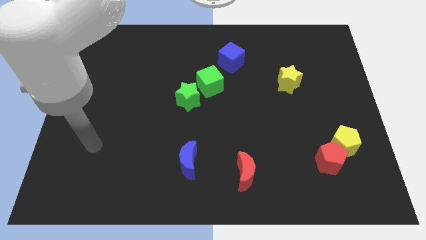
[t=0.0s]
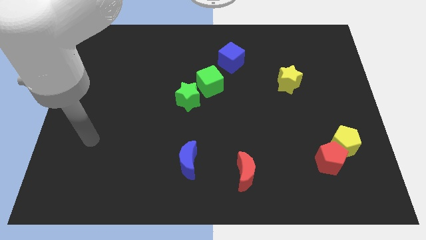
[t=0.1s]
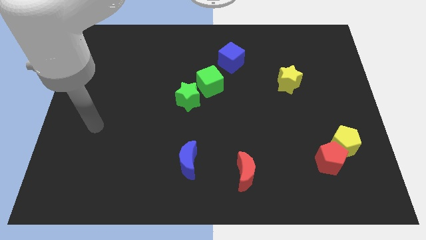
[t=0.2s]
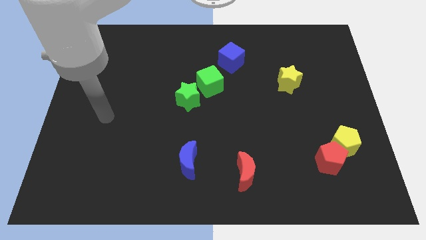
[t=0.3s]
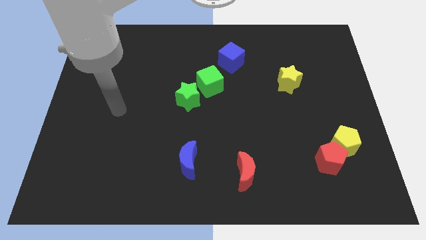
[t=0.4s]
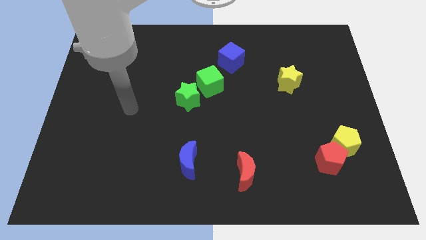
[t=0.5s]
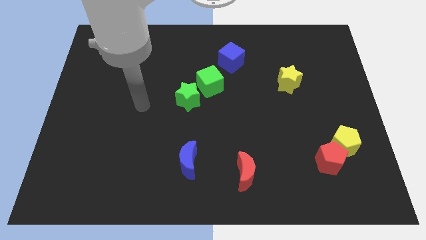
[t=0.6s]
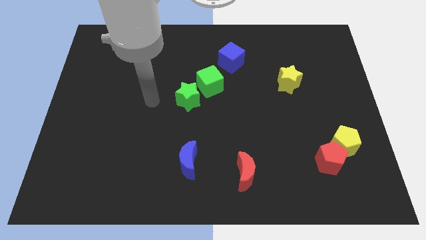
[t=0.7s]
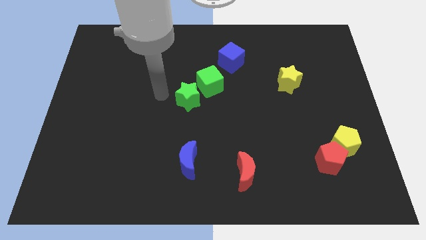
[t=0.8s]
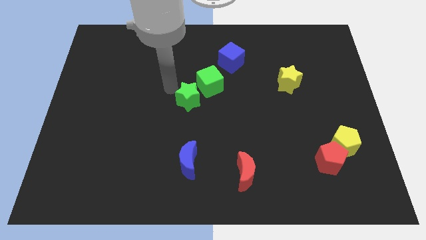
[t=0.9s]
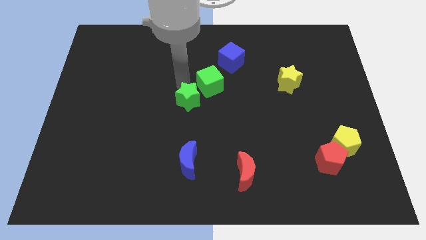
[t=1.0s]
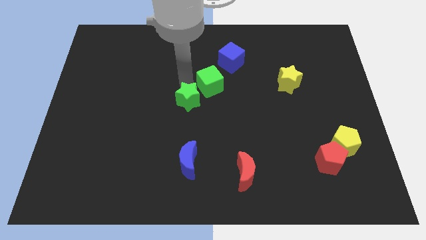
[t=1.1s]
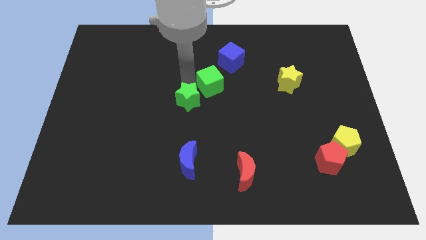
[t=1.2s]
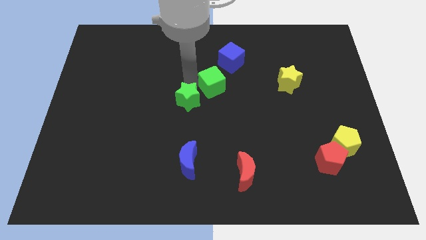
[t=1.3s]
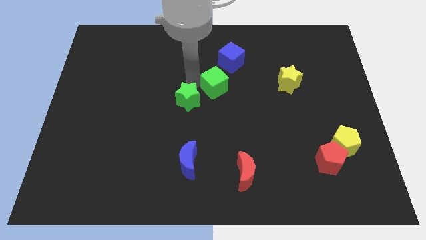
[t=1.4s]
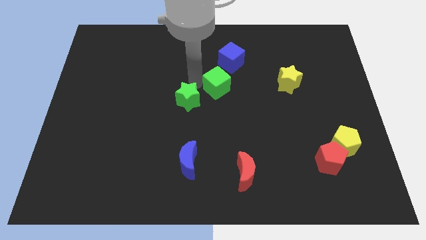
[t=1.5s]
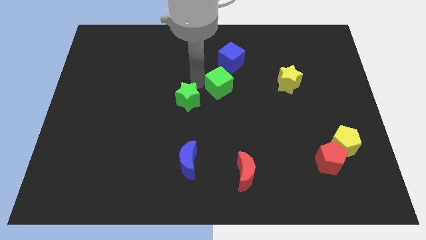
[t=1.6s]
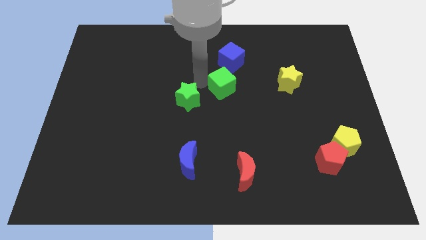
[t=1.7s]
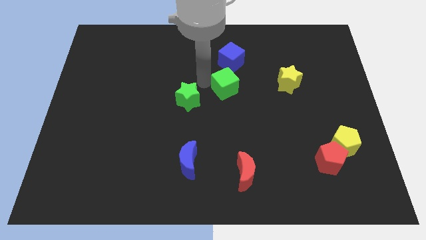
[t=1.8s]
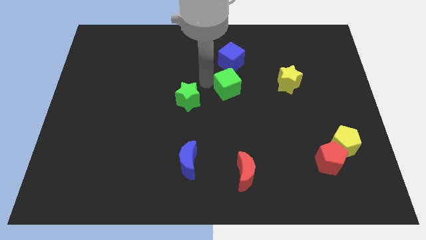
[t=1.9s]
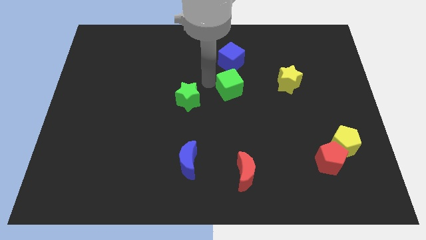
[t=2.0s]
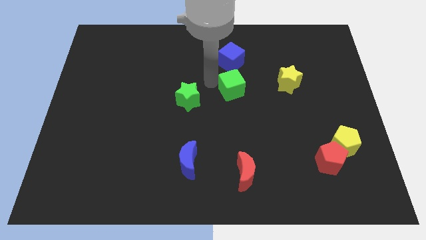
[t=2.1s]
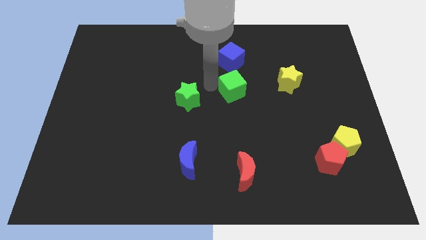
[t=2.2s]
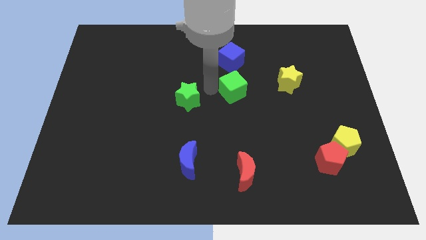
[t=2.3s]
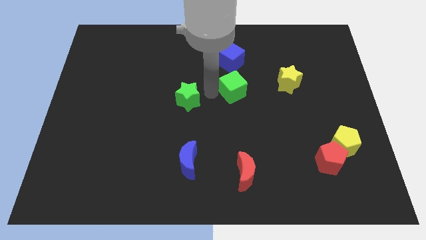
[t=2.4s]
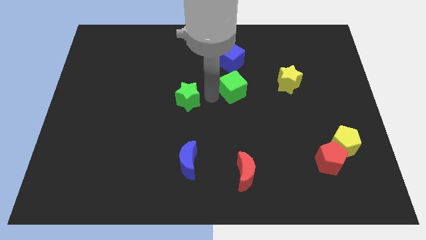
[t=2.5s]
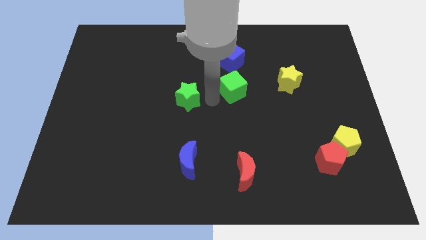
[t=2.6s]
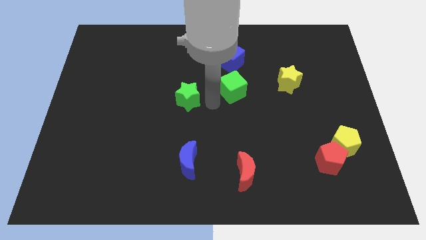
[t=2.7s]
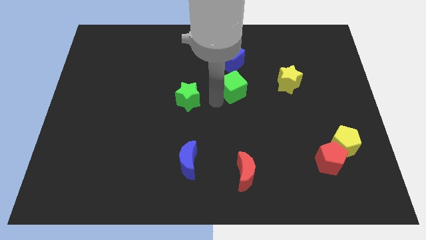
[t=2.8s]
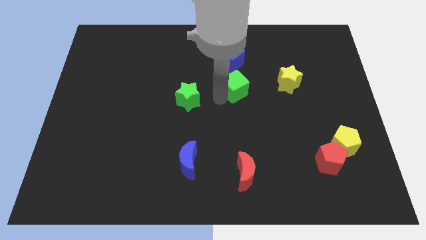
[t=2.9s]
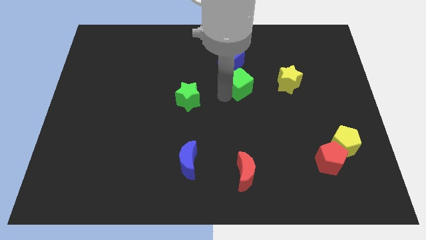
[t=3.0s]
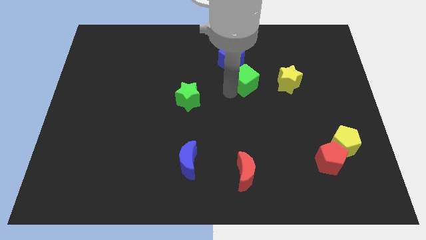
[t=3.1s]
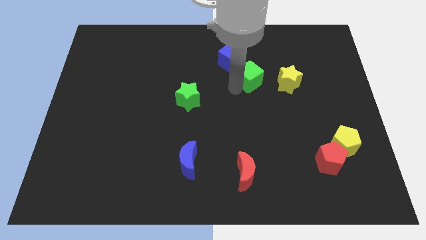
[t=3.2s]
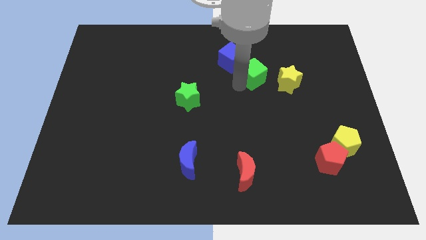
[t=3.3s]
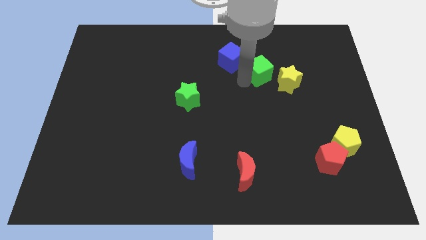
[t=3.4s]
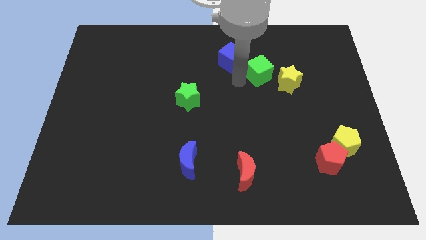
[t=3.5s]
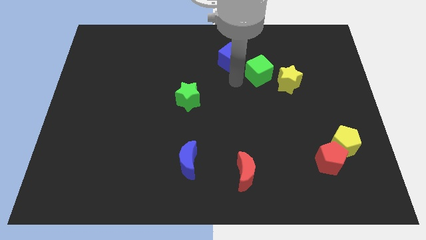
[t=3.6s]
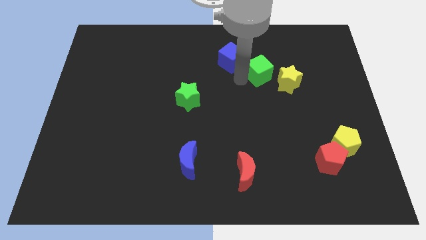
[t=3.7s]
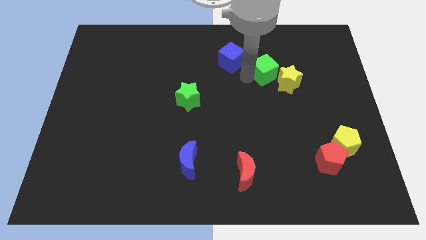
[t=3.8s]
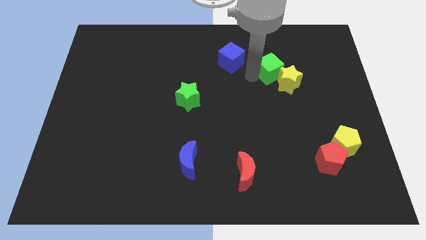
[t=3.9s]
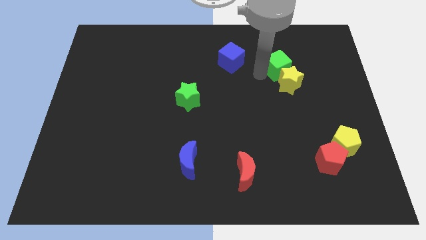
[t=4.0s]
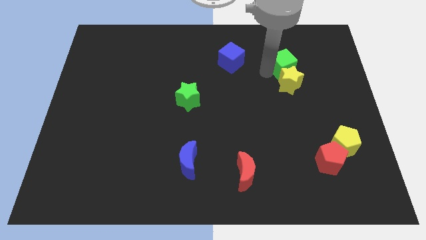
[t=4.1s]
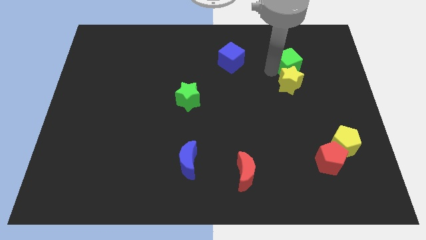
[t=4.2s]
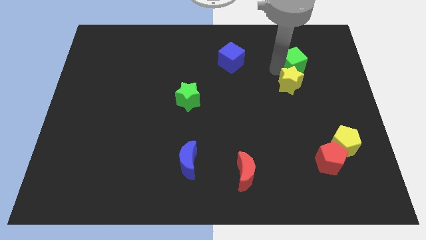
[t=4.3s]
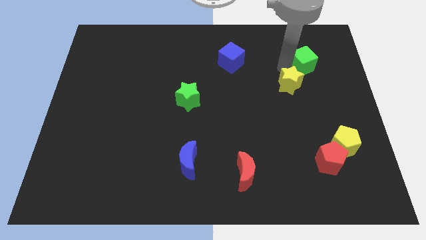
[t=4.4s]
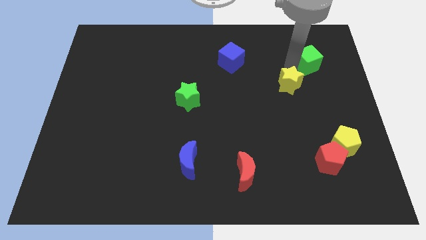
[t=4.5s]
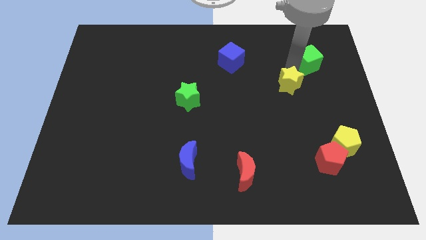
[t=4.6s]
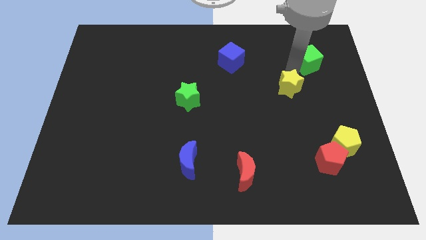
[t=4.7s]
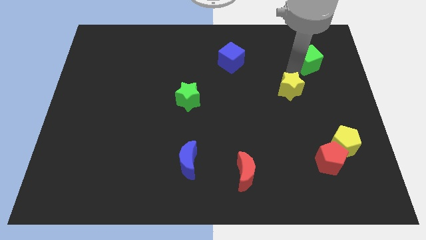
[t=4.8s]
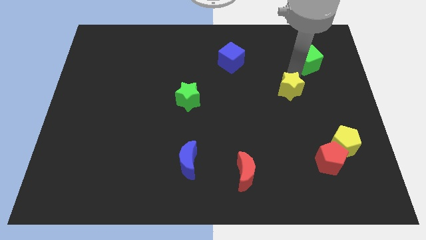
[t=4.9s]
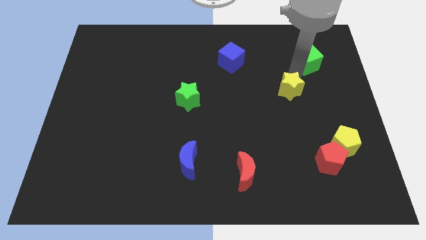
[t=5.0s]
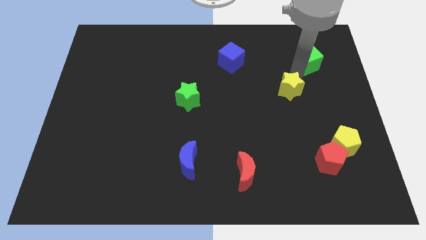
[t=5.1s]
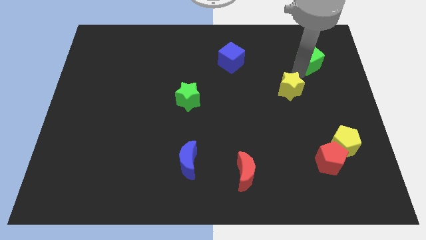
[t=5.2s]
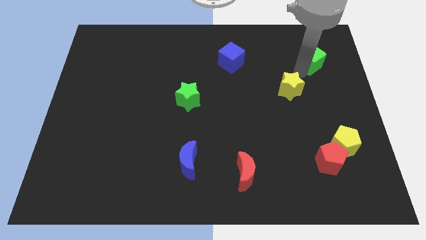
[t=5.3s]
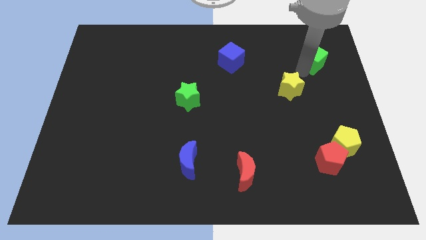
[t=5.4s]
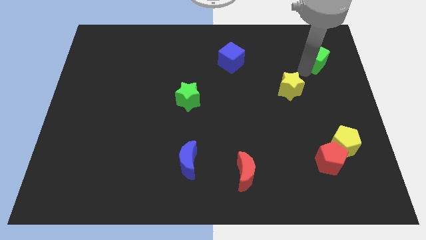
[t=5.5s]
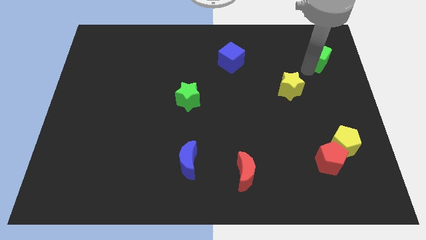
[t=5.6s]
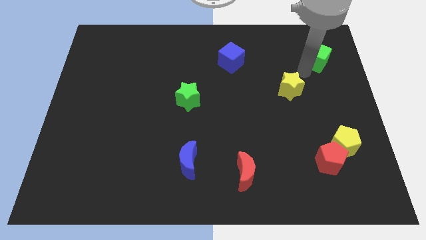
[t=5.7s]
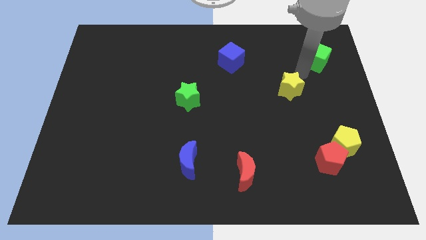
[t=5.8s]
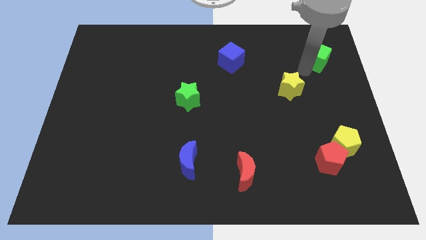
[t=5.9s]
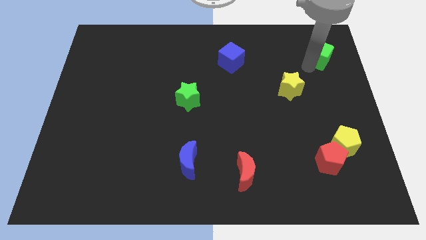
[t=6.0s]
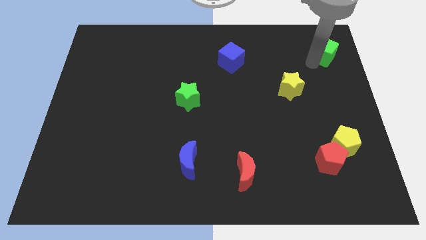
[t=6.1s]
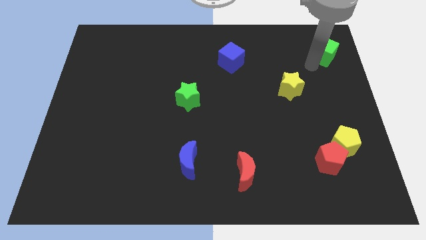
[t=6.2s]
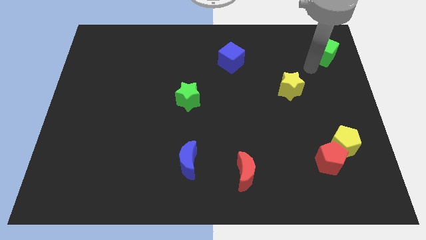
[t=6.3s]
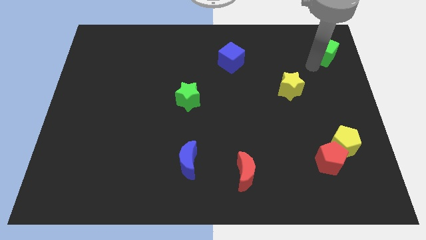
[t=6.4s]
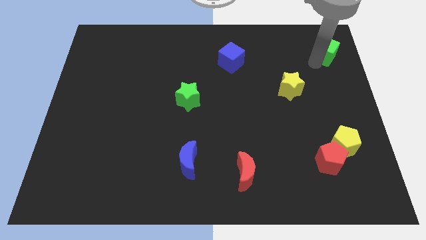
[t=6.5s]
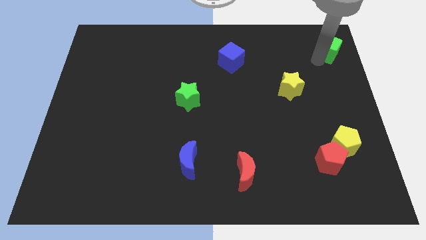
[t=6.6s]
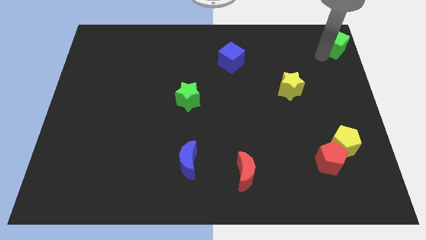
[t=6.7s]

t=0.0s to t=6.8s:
push the green cube to the top right
